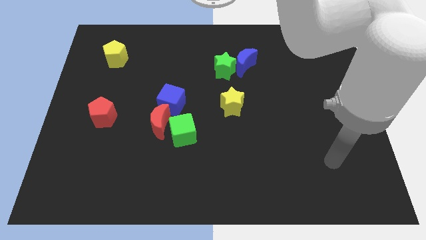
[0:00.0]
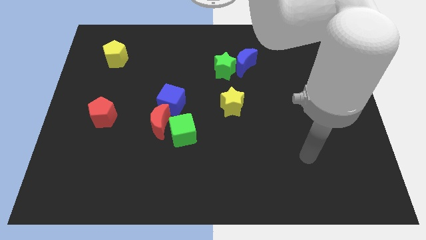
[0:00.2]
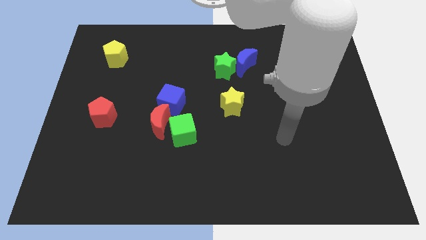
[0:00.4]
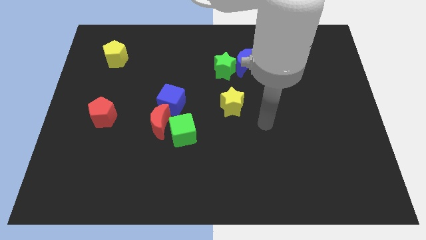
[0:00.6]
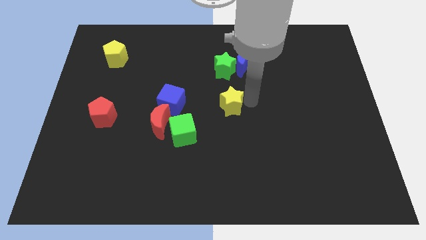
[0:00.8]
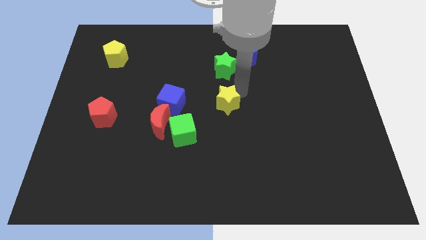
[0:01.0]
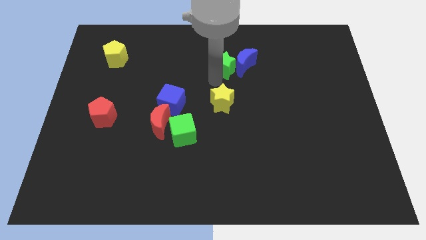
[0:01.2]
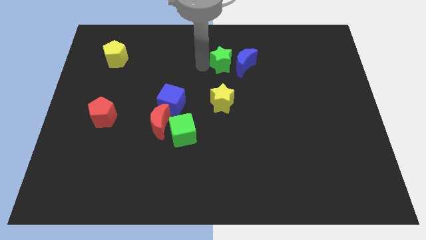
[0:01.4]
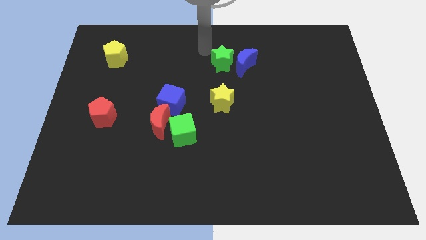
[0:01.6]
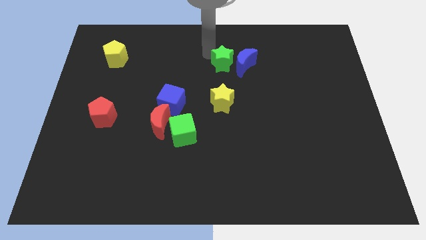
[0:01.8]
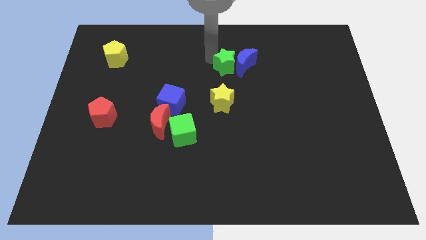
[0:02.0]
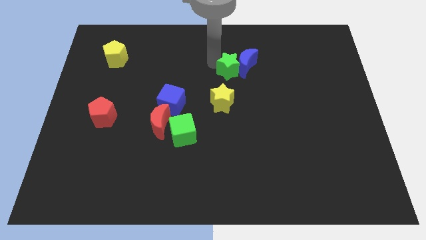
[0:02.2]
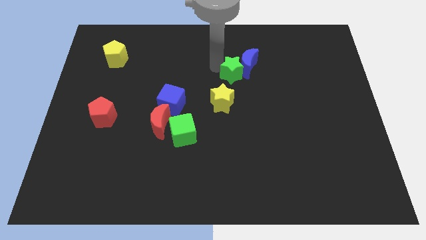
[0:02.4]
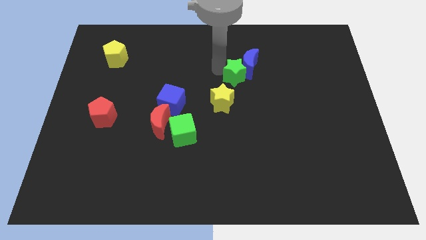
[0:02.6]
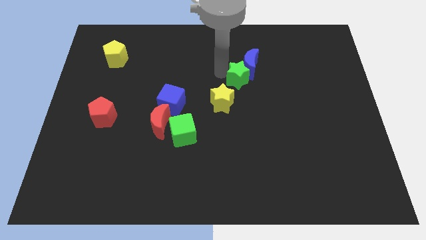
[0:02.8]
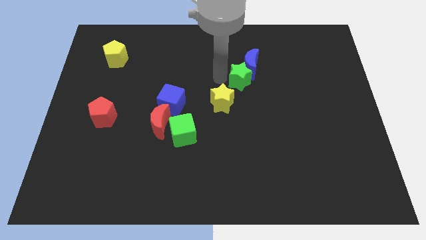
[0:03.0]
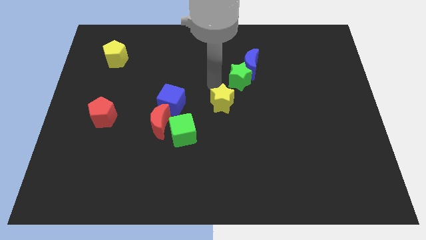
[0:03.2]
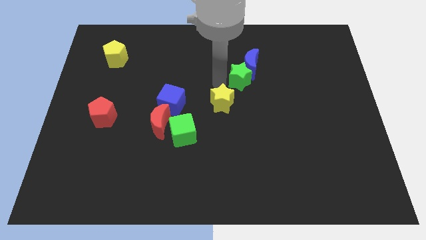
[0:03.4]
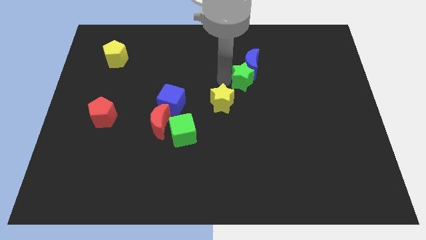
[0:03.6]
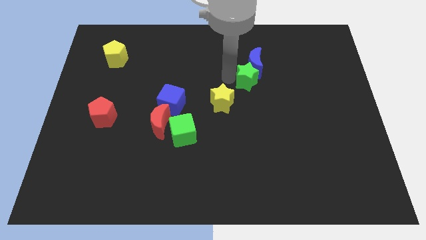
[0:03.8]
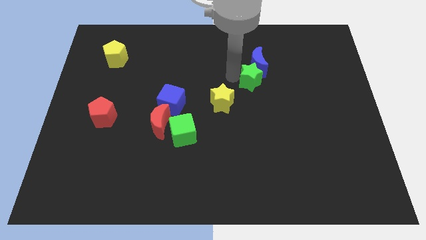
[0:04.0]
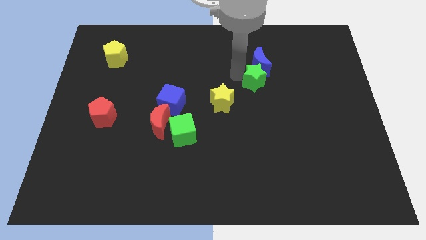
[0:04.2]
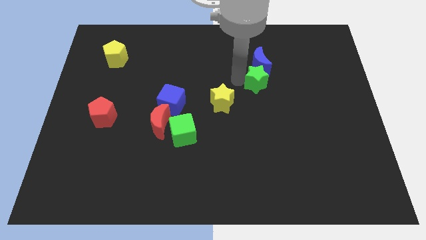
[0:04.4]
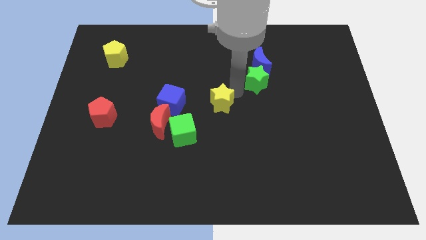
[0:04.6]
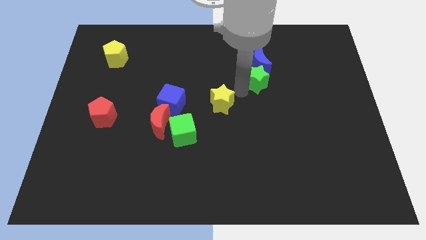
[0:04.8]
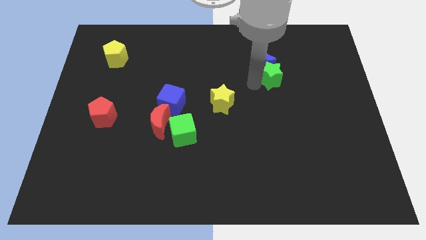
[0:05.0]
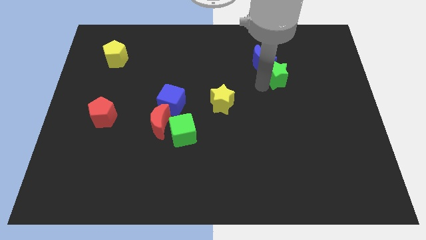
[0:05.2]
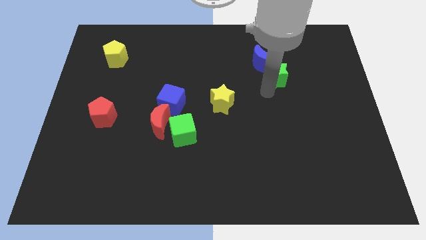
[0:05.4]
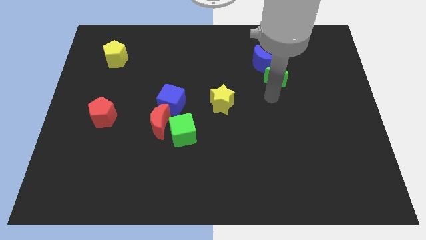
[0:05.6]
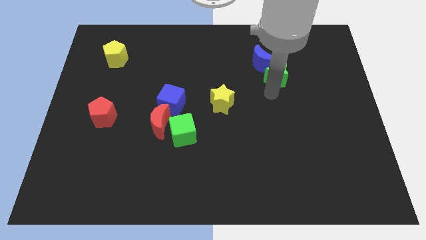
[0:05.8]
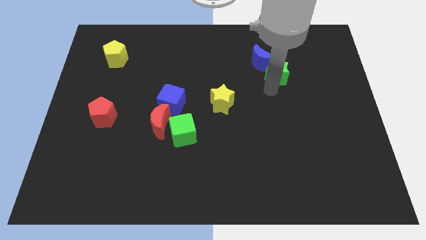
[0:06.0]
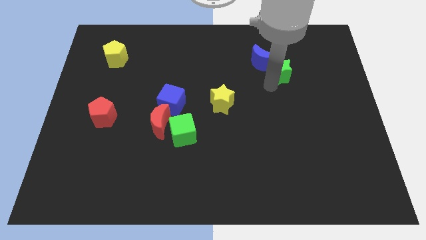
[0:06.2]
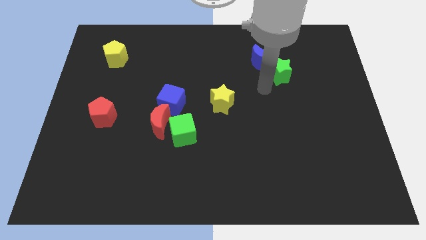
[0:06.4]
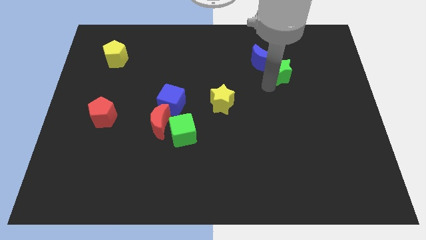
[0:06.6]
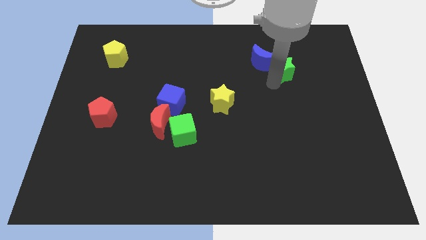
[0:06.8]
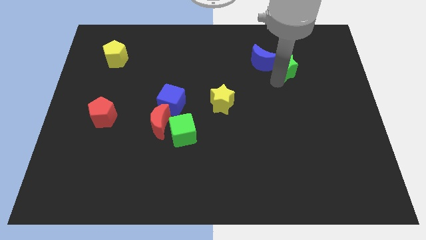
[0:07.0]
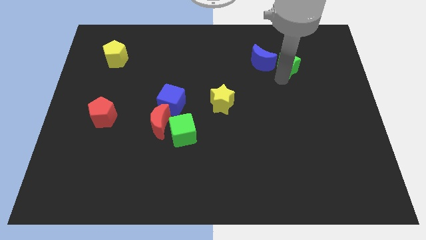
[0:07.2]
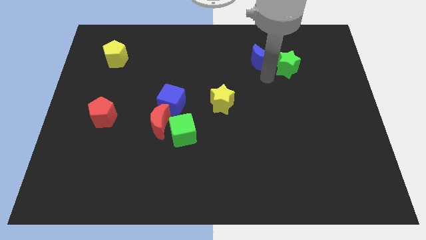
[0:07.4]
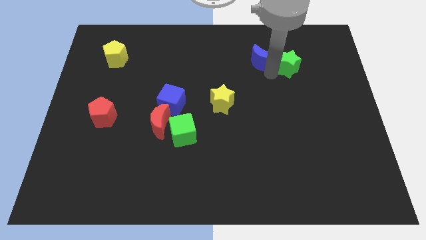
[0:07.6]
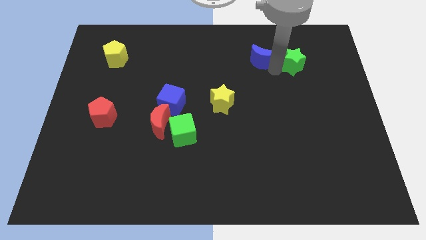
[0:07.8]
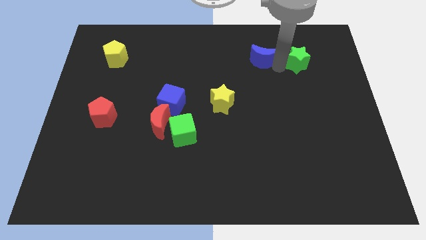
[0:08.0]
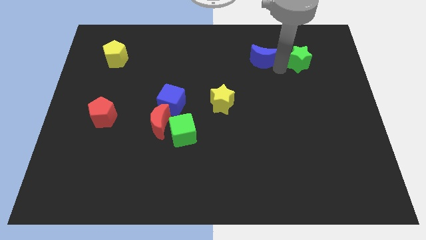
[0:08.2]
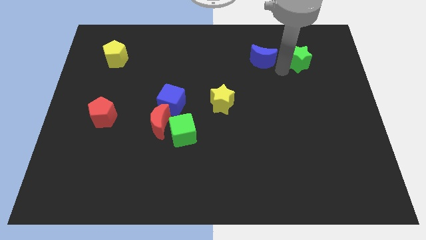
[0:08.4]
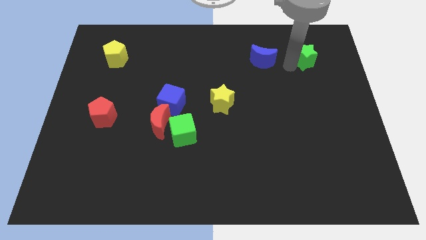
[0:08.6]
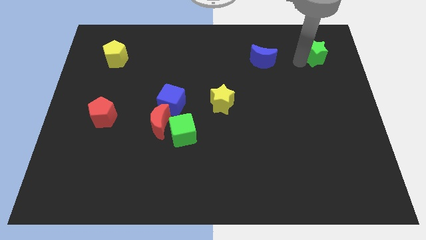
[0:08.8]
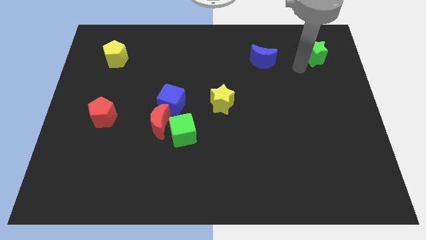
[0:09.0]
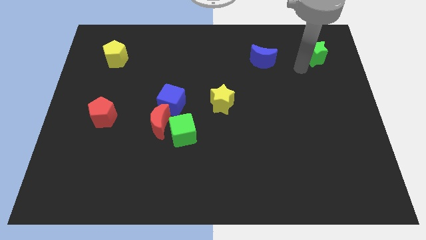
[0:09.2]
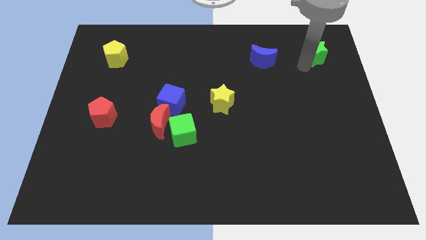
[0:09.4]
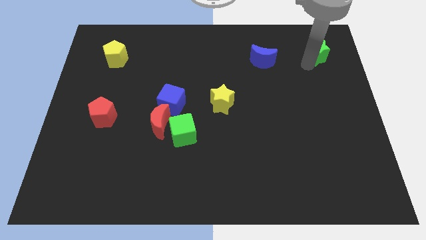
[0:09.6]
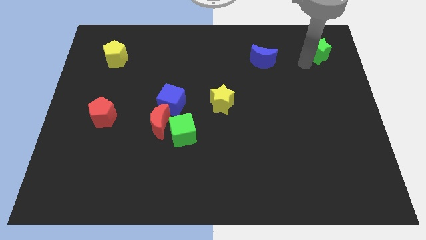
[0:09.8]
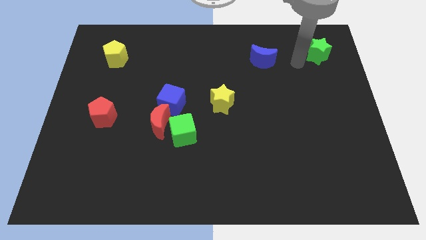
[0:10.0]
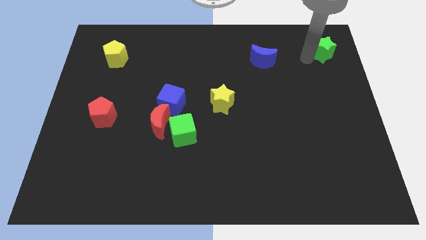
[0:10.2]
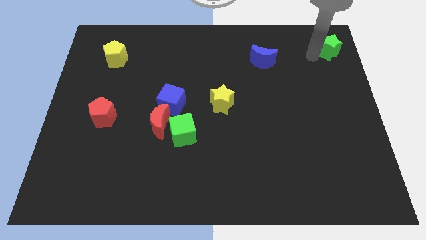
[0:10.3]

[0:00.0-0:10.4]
move the green star to the top right

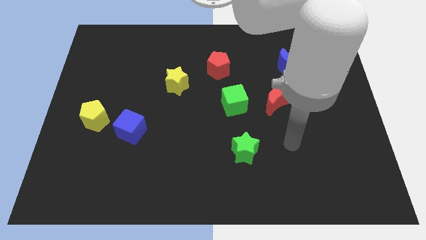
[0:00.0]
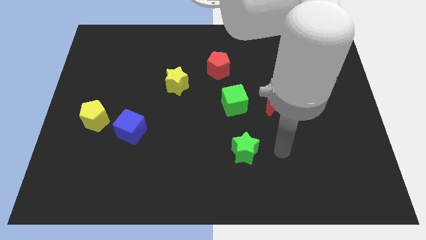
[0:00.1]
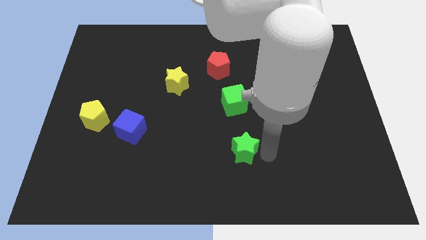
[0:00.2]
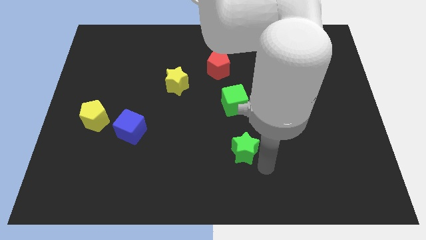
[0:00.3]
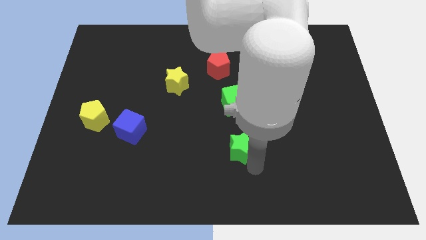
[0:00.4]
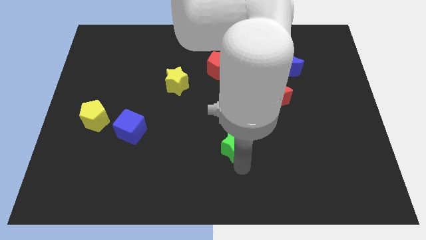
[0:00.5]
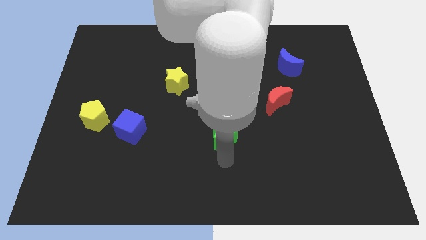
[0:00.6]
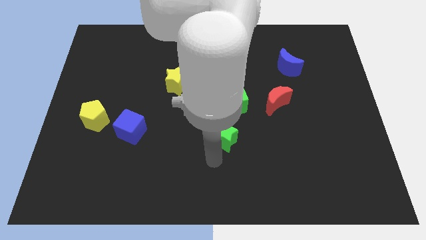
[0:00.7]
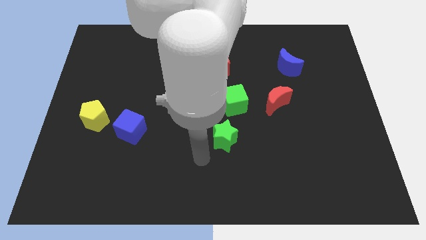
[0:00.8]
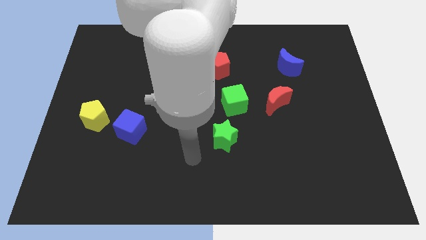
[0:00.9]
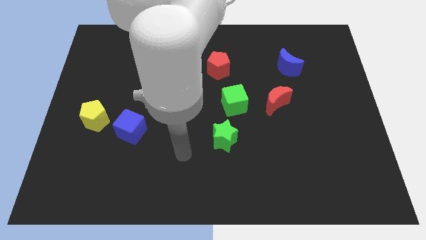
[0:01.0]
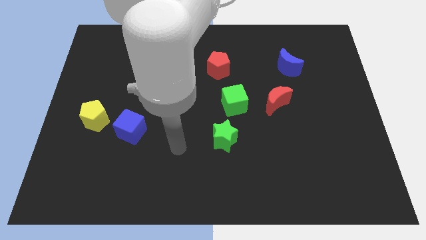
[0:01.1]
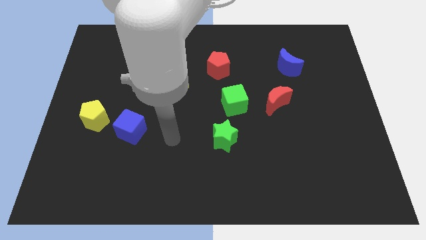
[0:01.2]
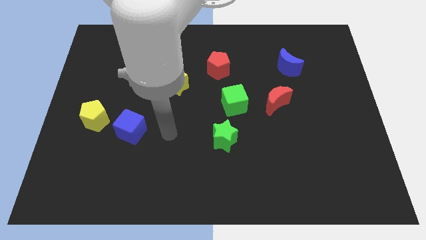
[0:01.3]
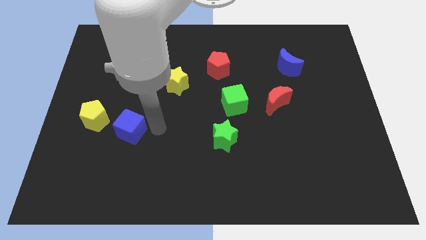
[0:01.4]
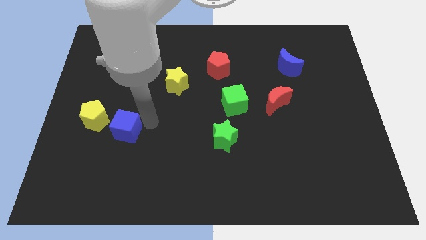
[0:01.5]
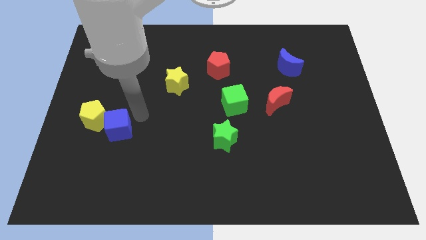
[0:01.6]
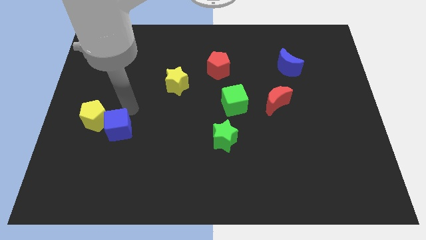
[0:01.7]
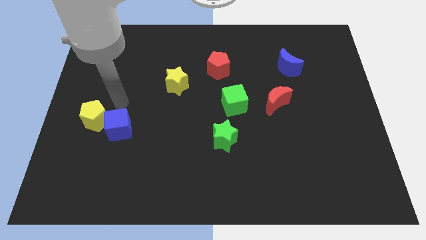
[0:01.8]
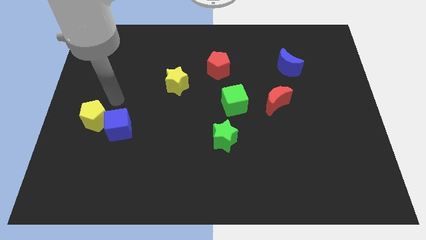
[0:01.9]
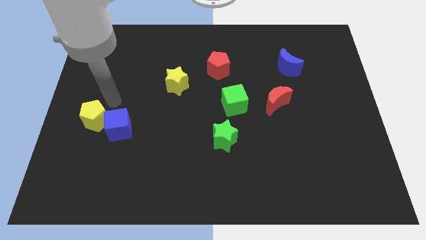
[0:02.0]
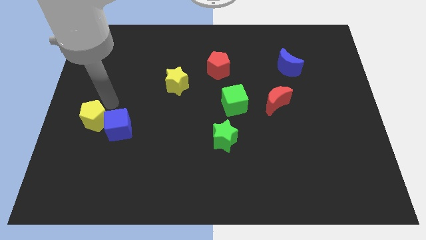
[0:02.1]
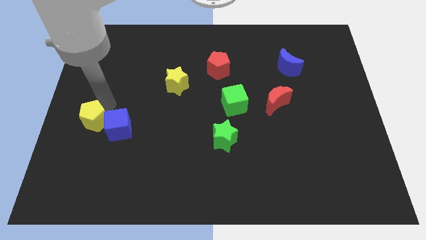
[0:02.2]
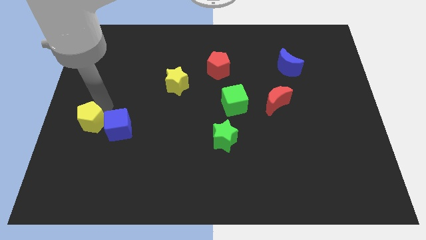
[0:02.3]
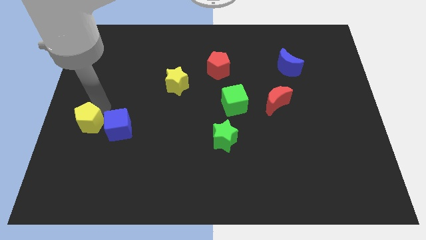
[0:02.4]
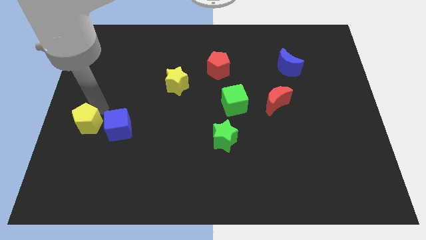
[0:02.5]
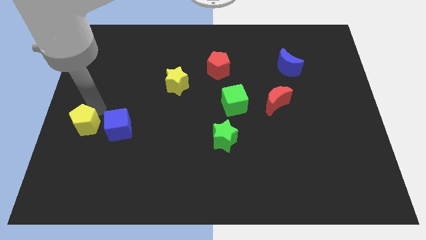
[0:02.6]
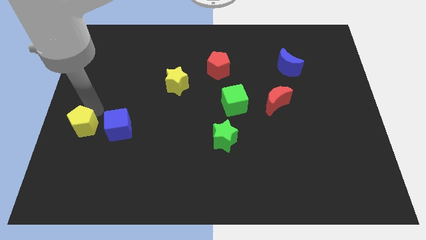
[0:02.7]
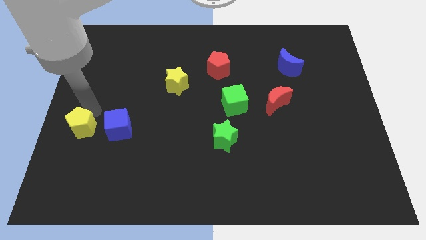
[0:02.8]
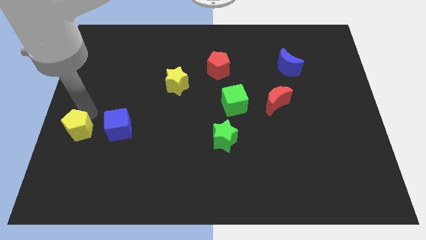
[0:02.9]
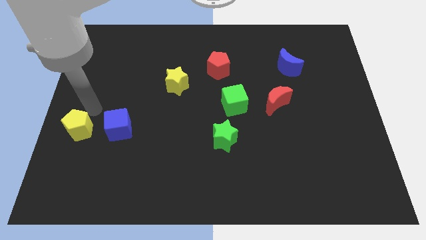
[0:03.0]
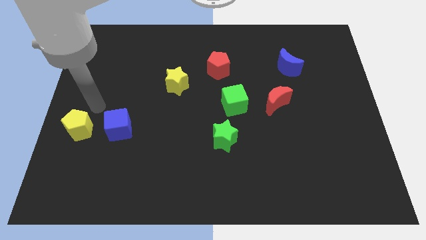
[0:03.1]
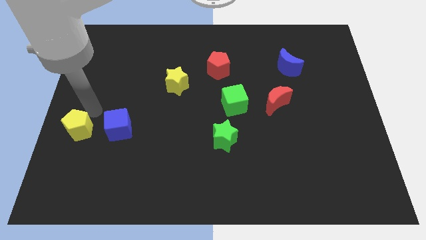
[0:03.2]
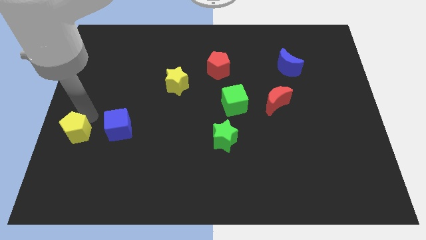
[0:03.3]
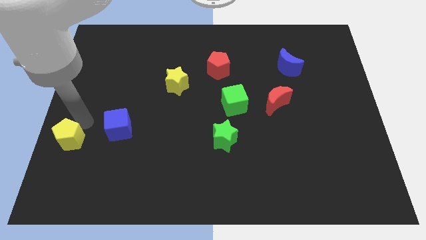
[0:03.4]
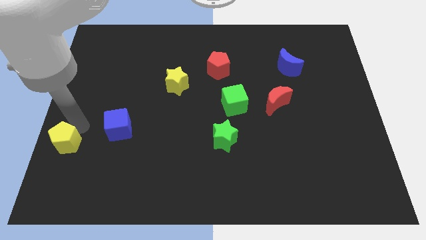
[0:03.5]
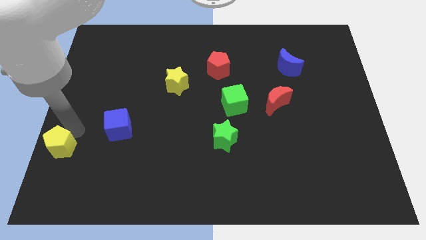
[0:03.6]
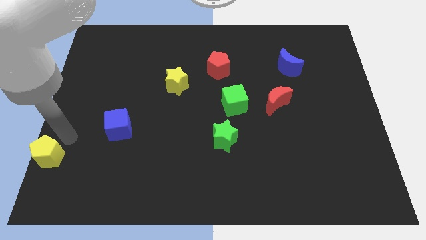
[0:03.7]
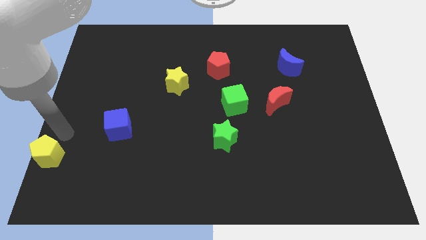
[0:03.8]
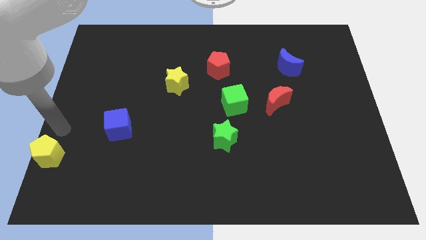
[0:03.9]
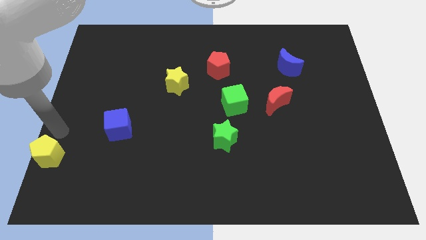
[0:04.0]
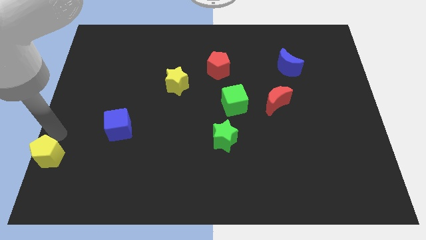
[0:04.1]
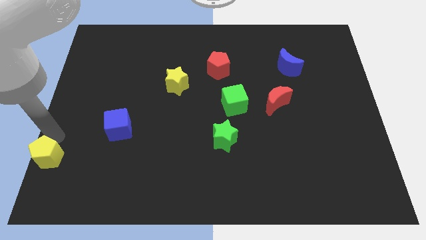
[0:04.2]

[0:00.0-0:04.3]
slide the yellow pentagon to the bottom left of the board
